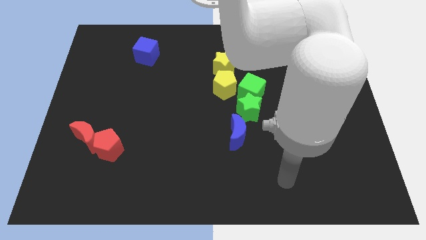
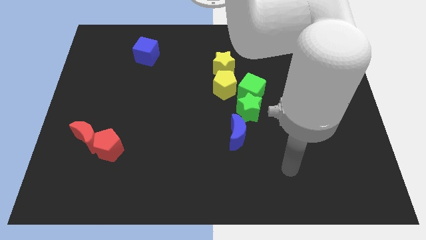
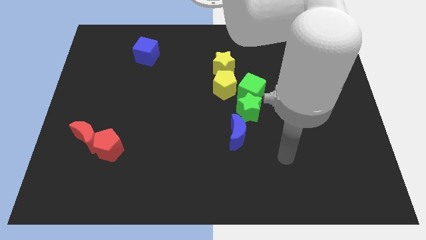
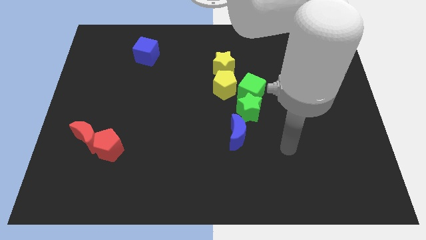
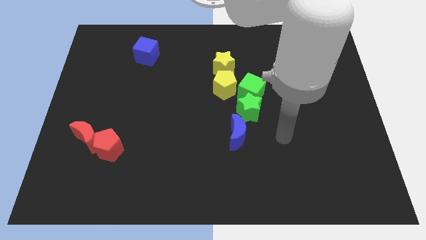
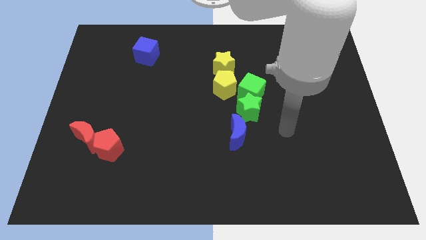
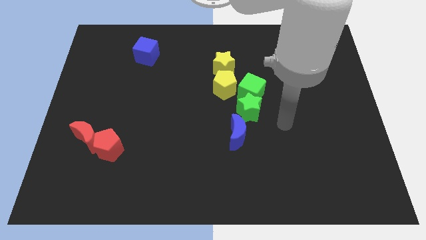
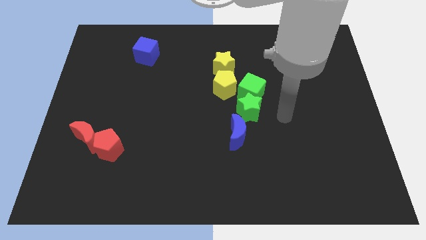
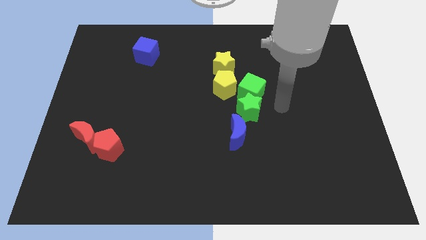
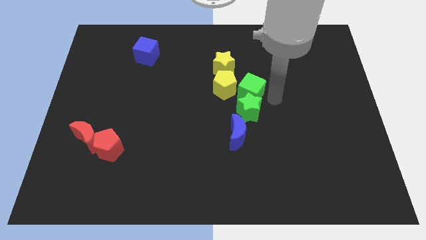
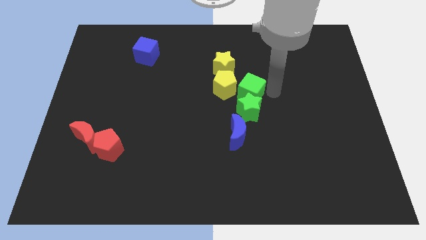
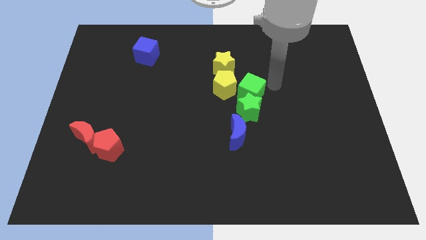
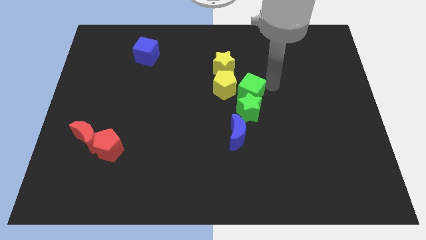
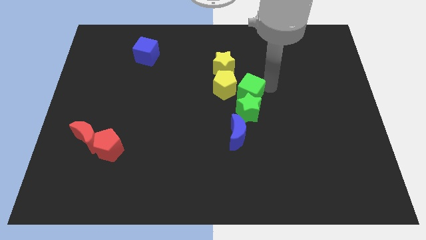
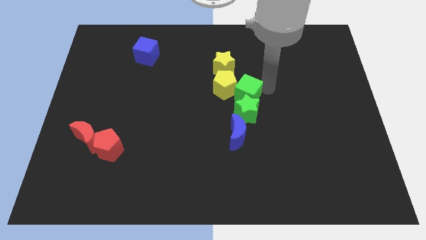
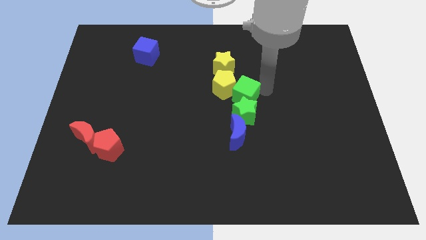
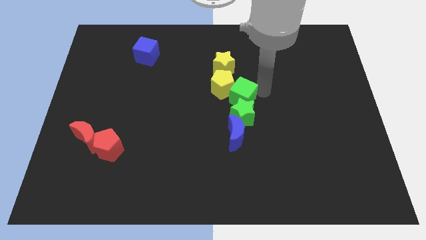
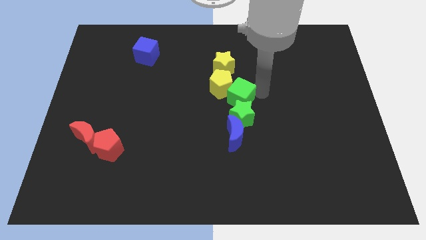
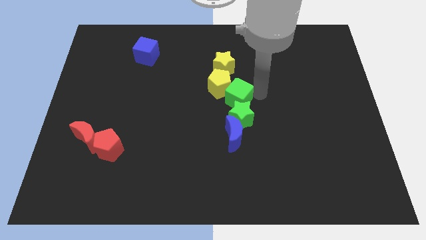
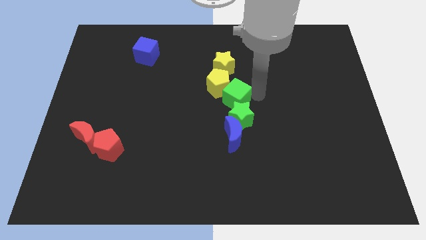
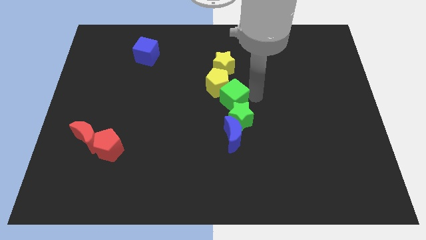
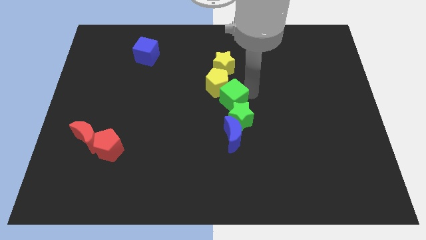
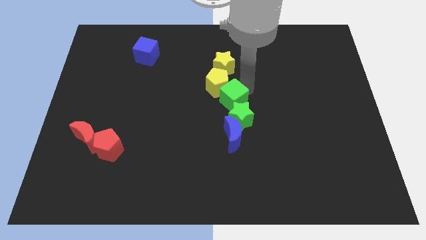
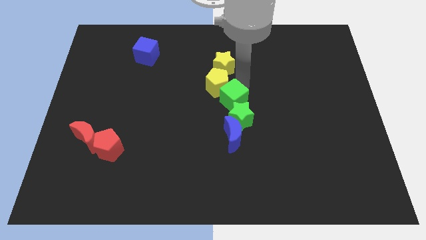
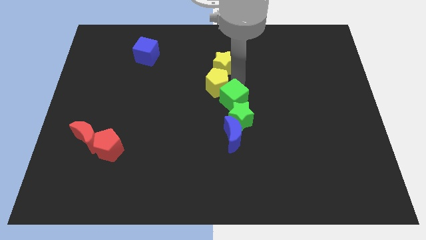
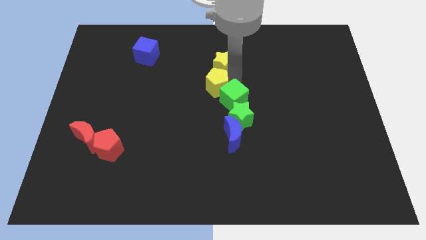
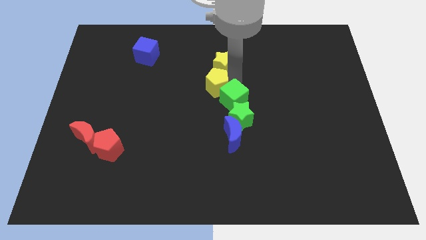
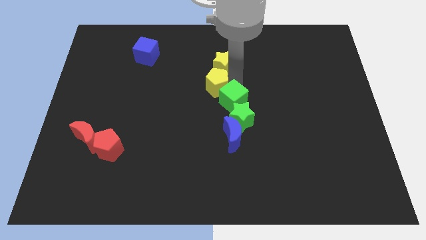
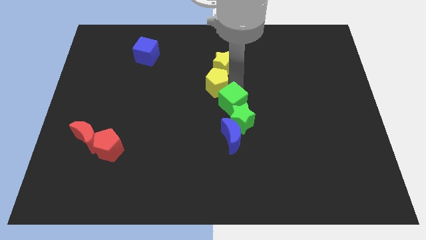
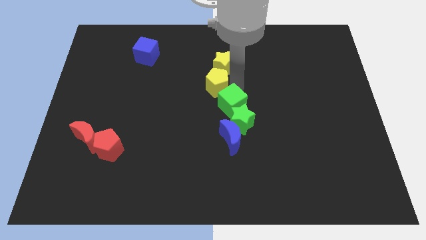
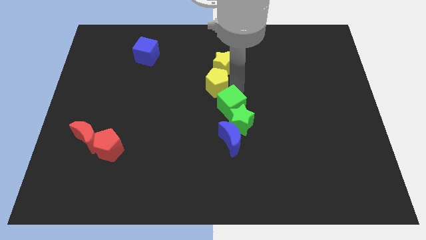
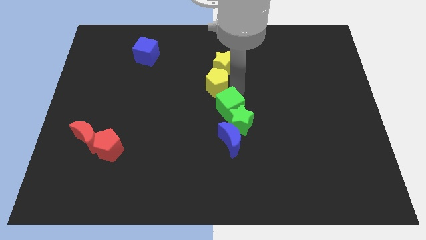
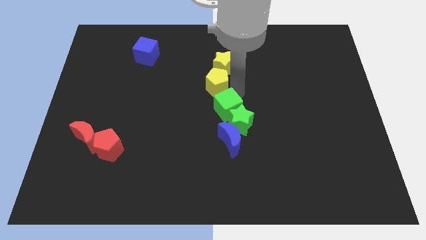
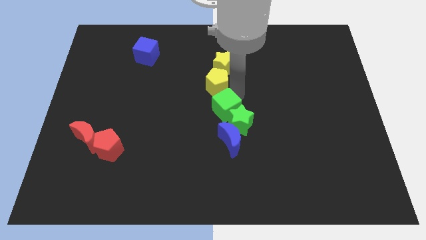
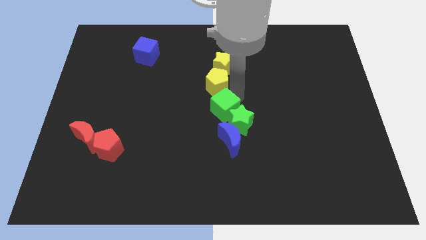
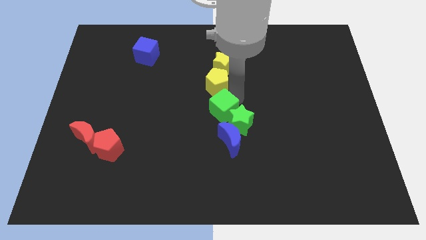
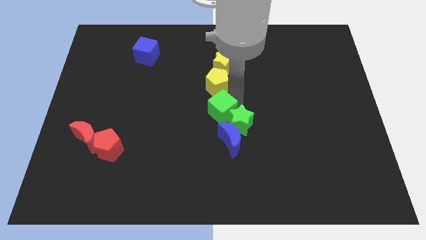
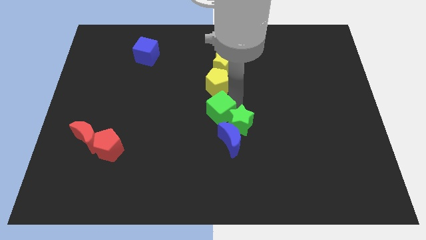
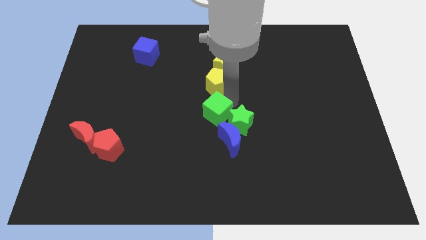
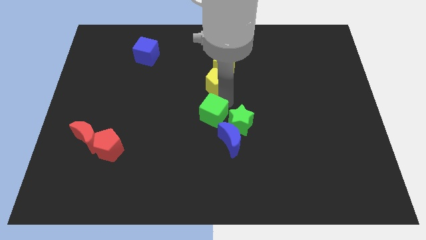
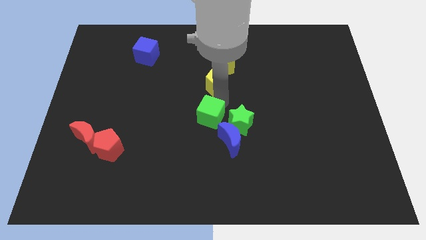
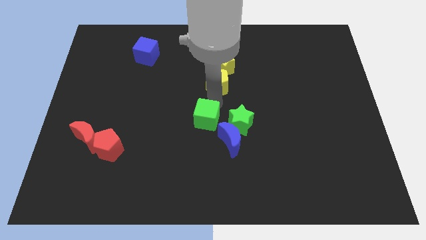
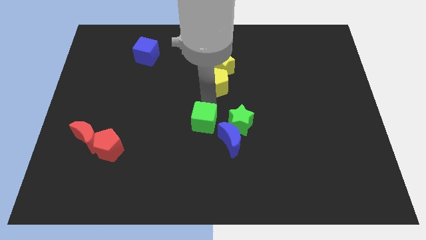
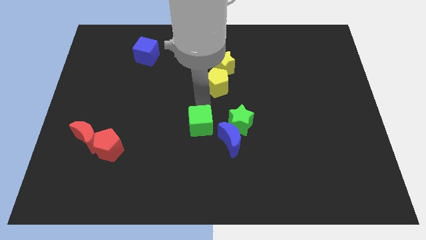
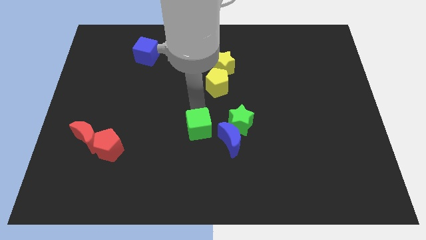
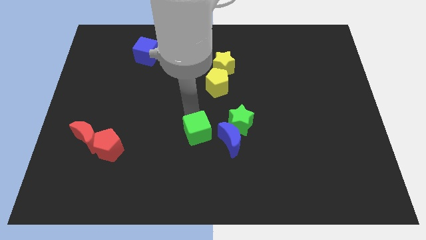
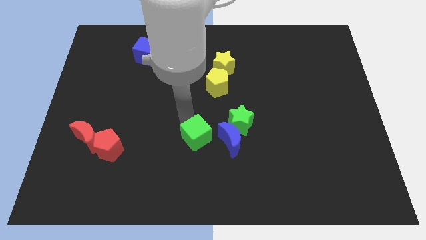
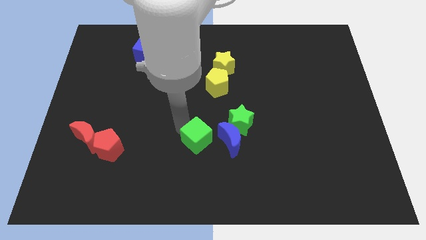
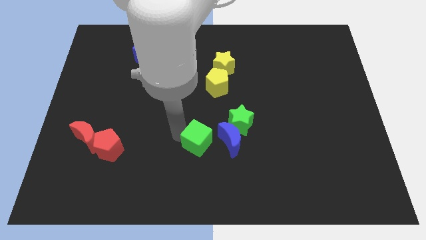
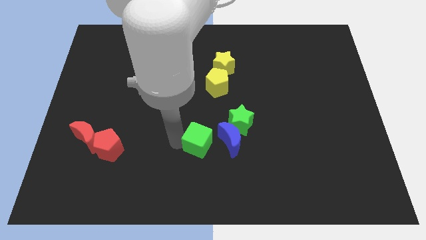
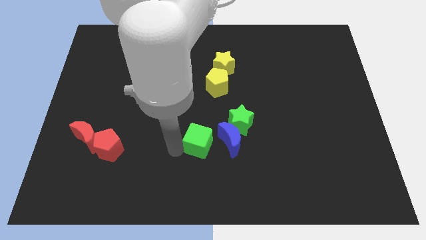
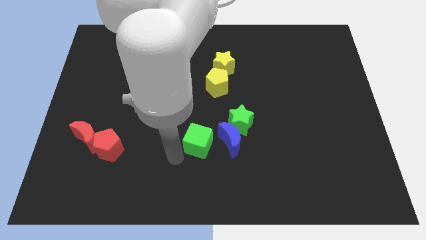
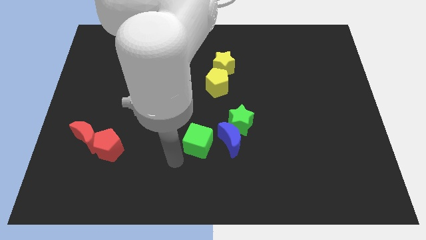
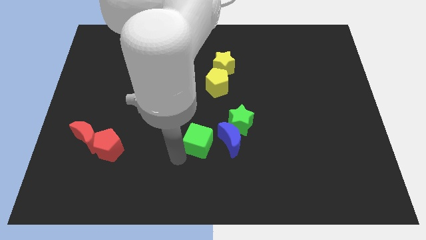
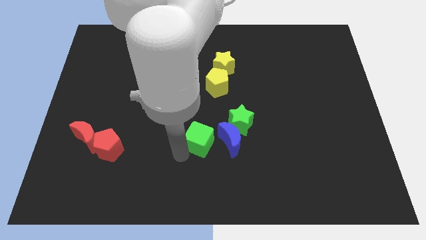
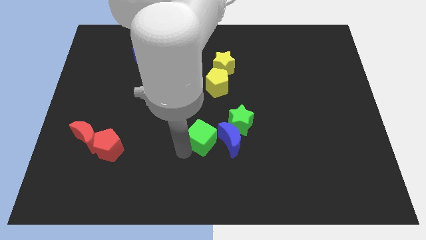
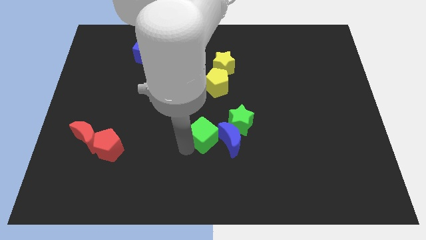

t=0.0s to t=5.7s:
slide the green cube close to the blue moon

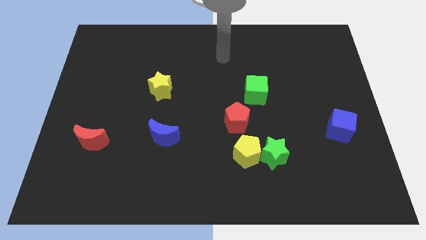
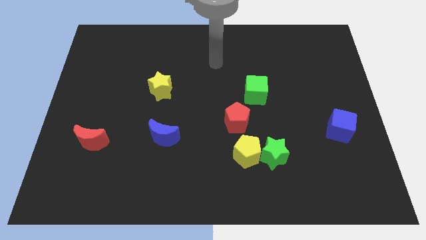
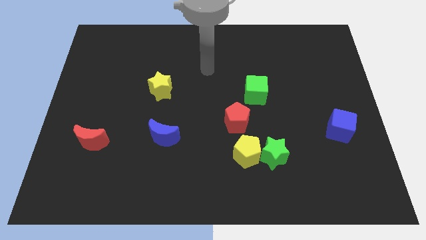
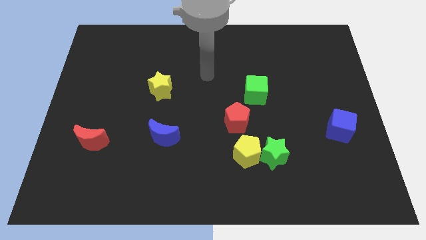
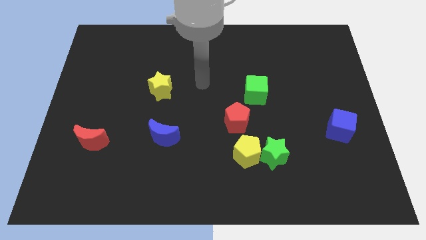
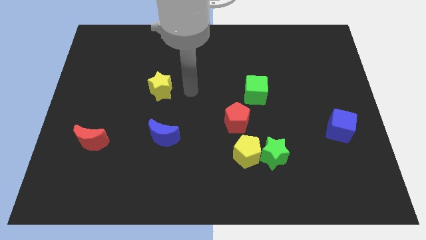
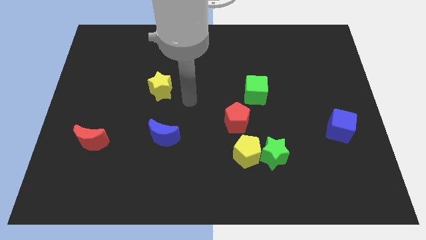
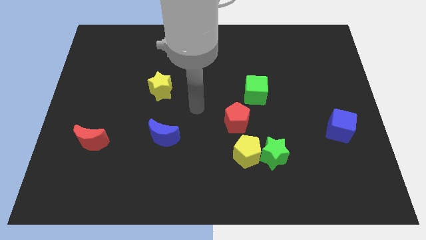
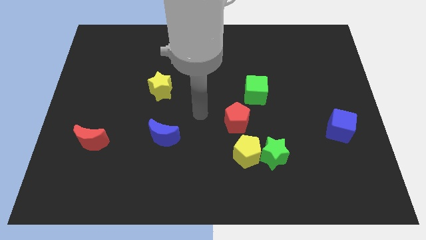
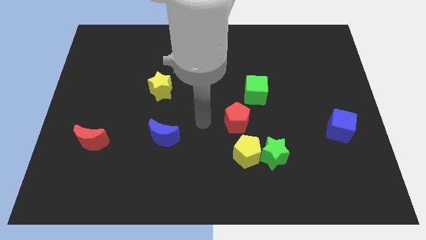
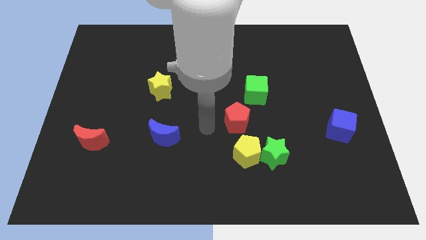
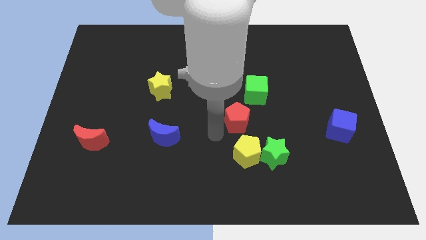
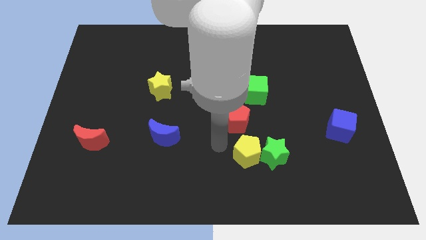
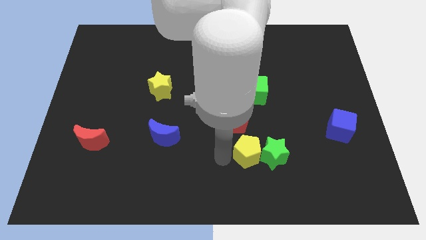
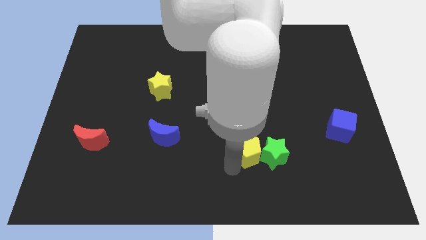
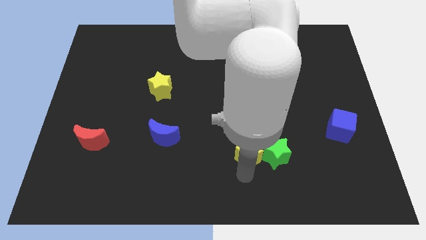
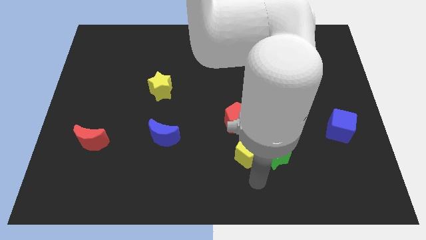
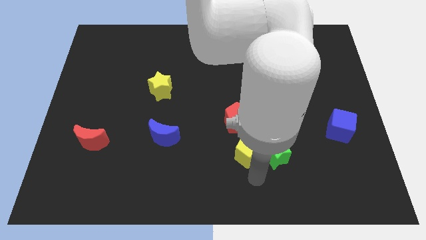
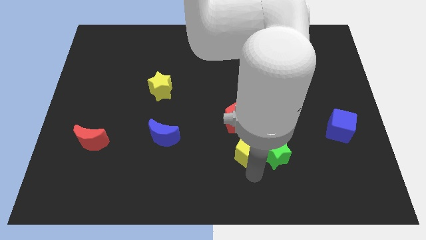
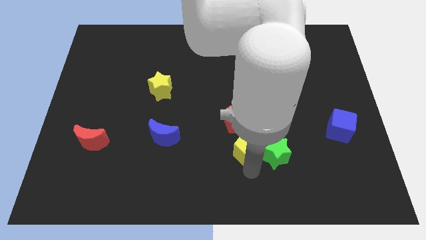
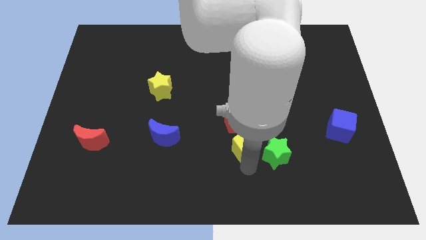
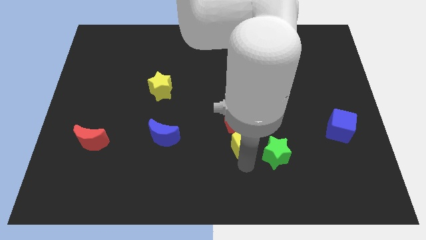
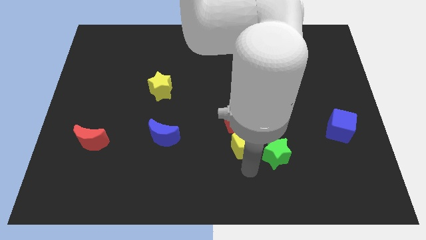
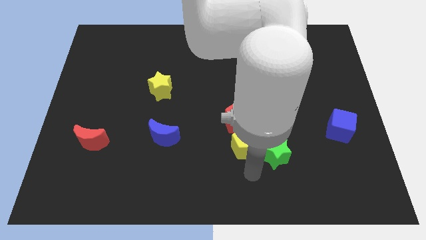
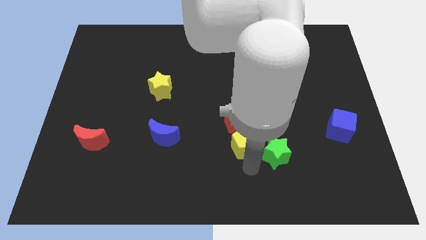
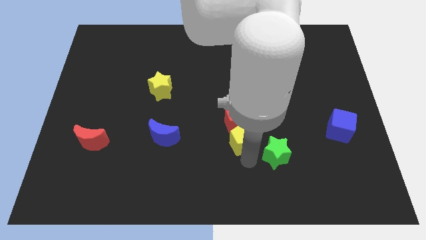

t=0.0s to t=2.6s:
move the yellow pentagon towards the red pentagon
